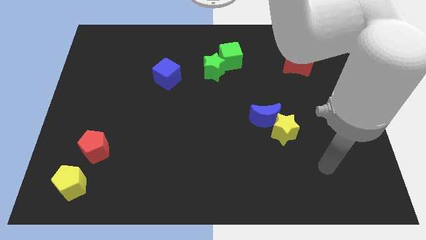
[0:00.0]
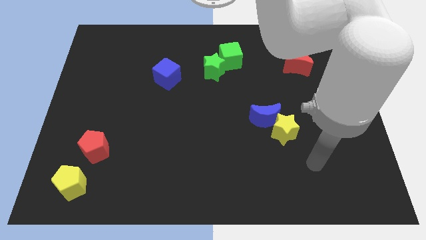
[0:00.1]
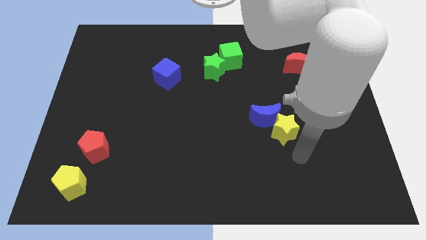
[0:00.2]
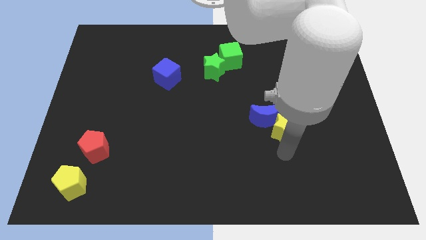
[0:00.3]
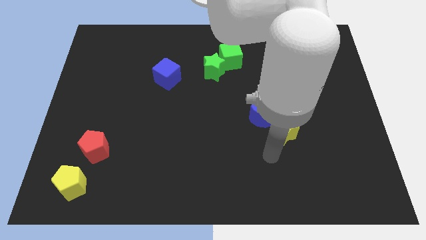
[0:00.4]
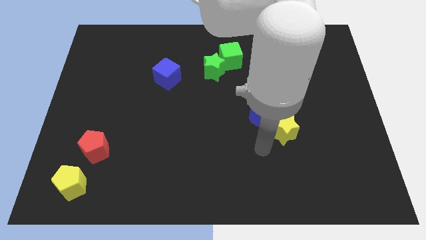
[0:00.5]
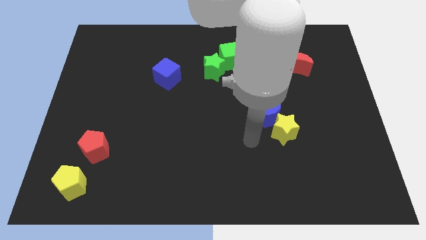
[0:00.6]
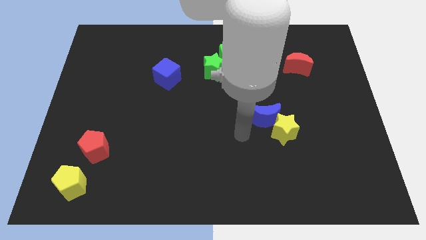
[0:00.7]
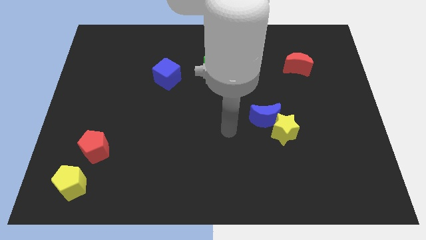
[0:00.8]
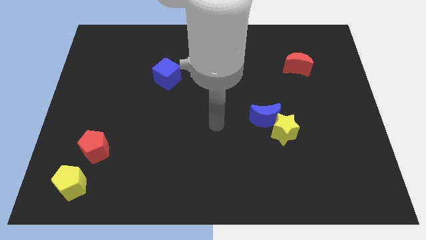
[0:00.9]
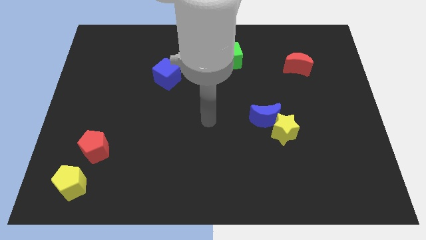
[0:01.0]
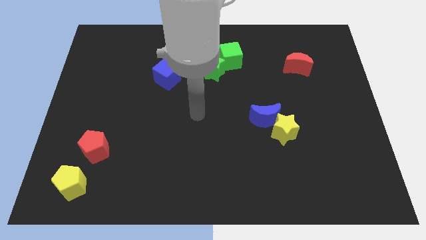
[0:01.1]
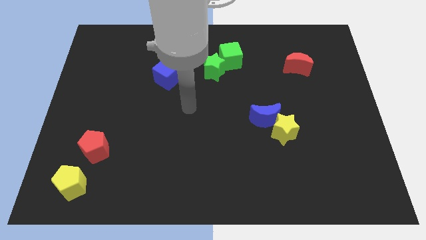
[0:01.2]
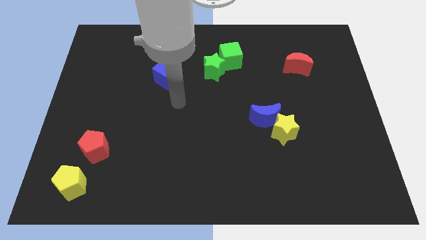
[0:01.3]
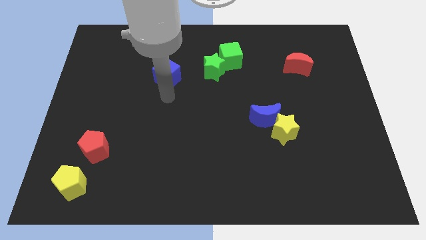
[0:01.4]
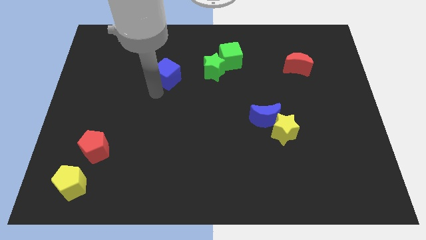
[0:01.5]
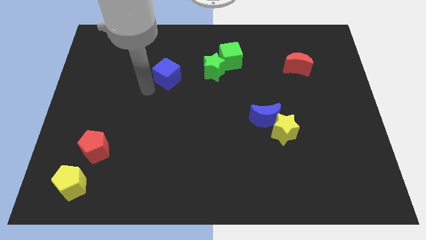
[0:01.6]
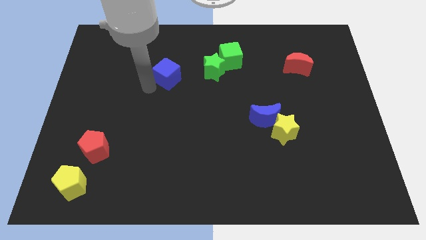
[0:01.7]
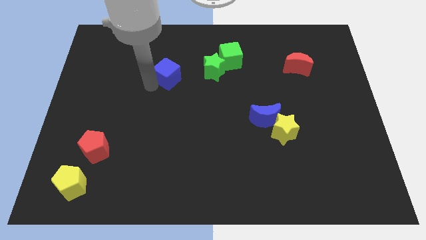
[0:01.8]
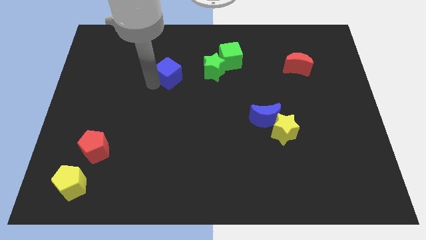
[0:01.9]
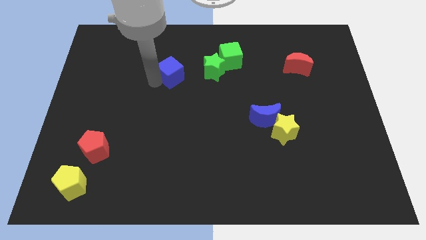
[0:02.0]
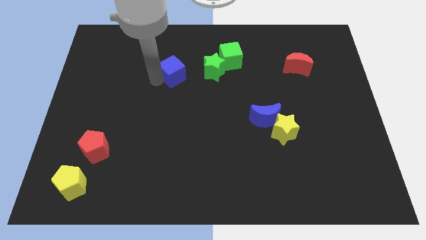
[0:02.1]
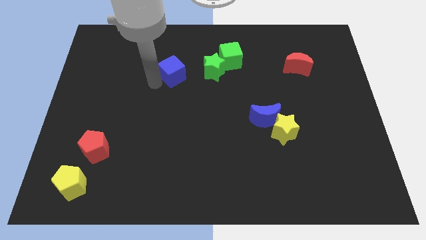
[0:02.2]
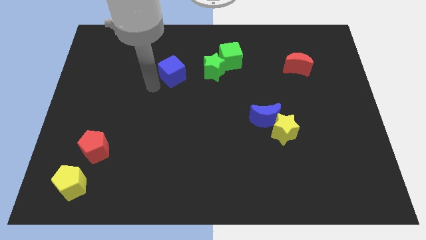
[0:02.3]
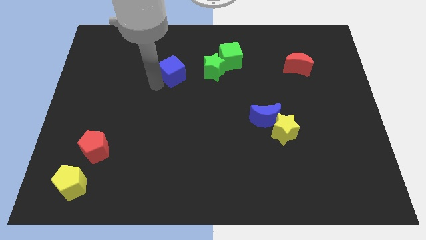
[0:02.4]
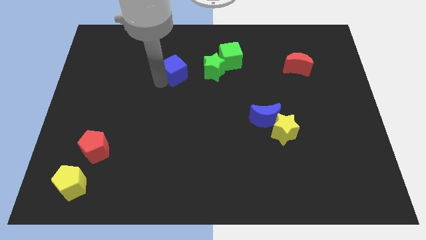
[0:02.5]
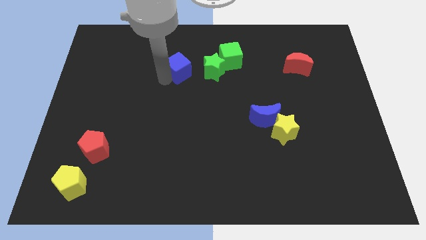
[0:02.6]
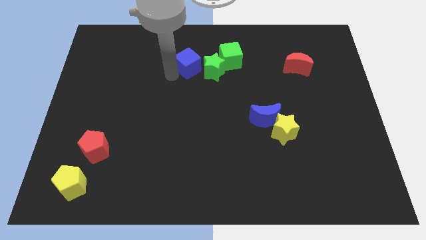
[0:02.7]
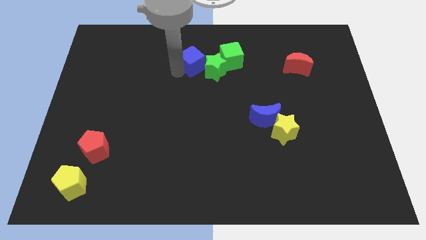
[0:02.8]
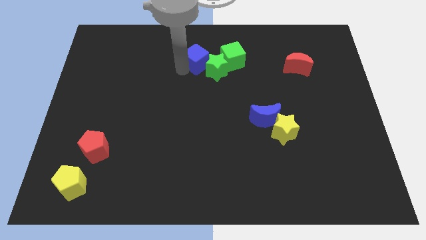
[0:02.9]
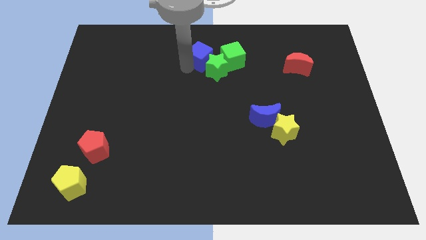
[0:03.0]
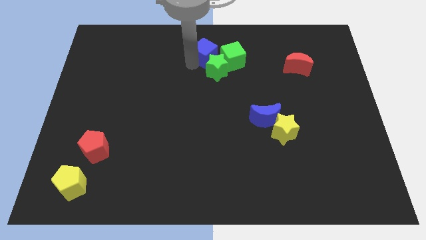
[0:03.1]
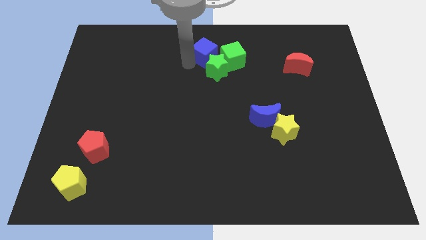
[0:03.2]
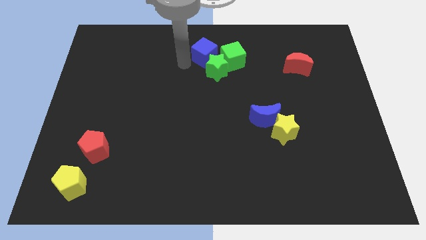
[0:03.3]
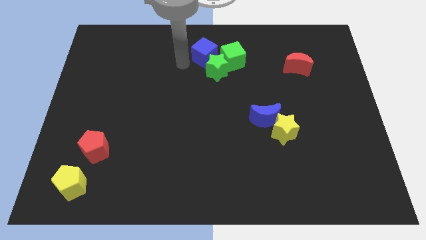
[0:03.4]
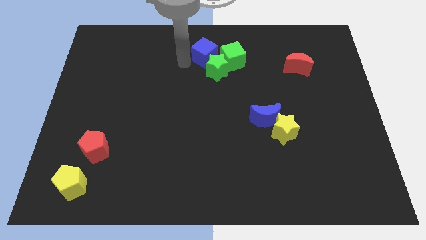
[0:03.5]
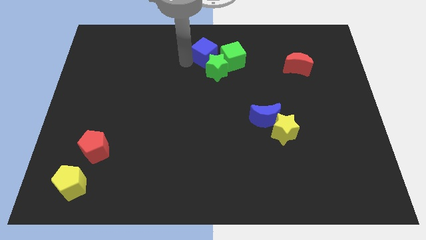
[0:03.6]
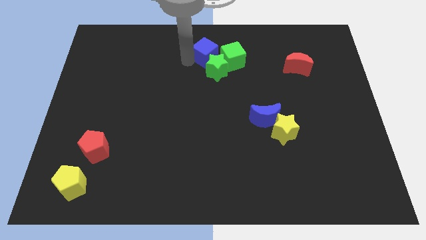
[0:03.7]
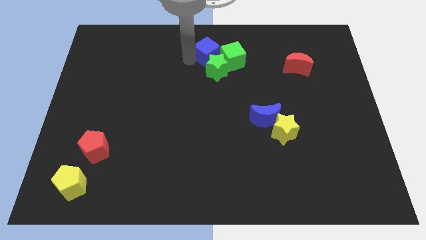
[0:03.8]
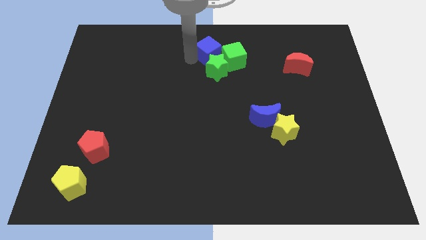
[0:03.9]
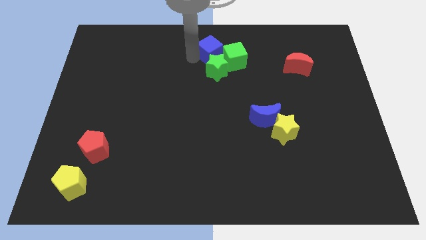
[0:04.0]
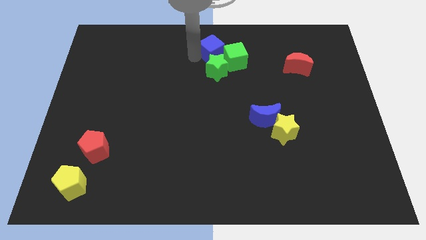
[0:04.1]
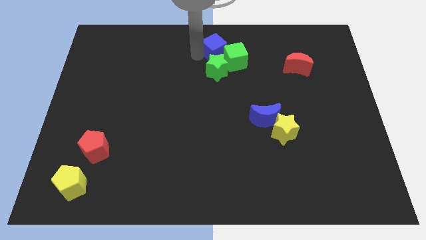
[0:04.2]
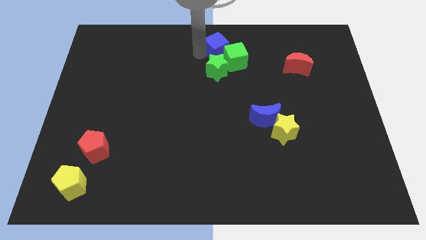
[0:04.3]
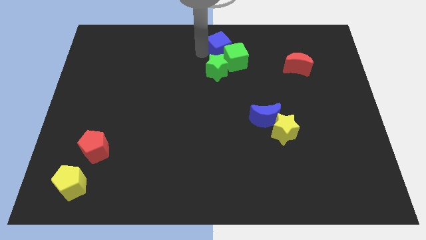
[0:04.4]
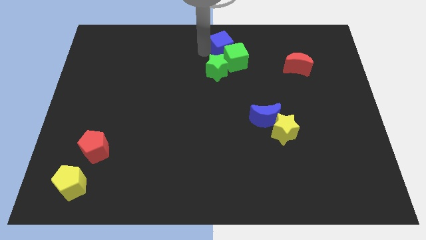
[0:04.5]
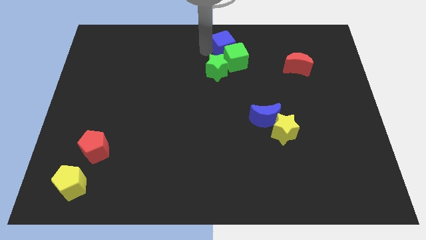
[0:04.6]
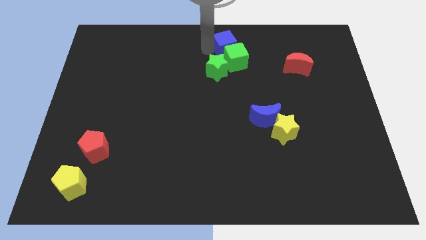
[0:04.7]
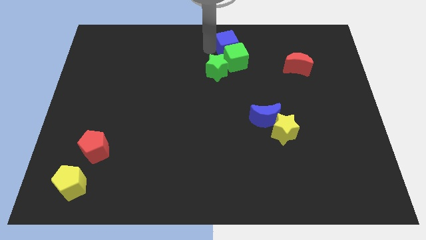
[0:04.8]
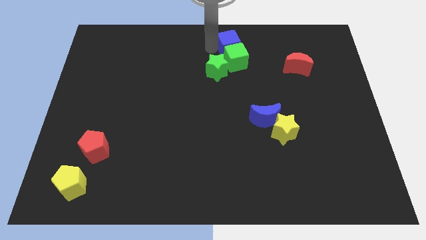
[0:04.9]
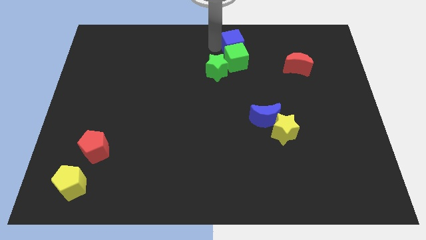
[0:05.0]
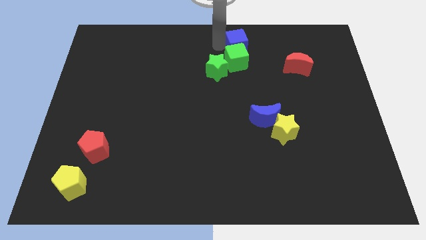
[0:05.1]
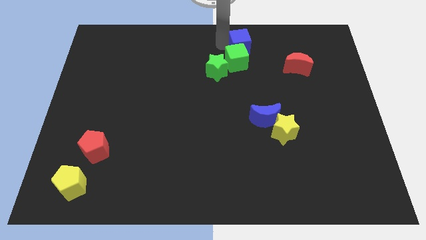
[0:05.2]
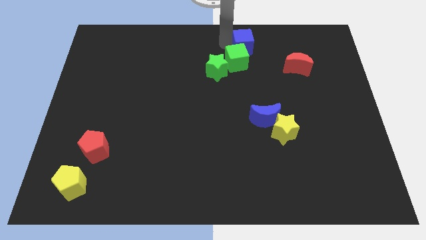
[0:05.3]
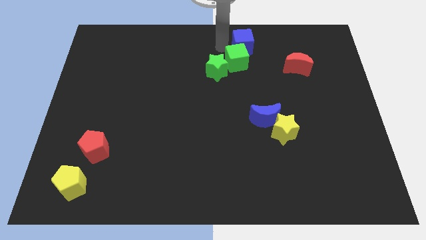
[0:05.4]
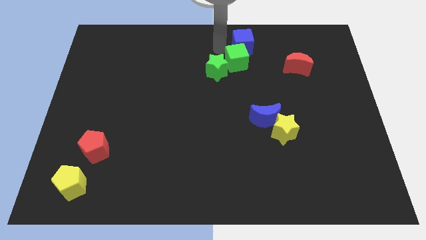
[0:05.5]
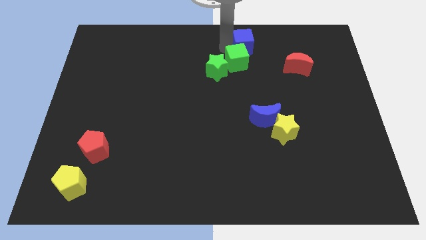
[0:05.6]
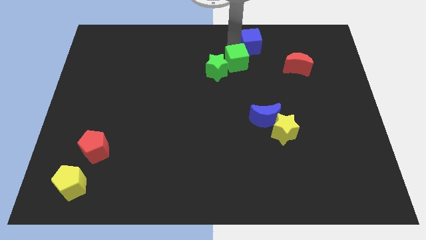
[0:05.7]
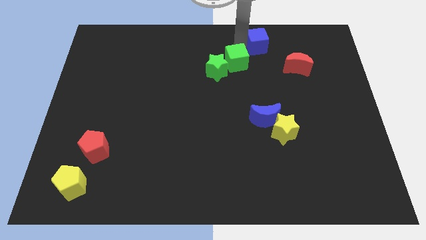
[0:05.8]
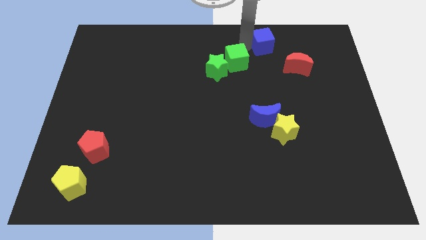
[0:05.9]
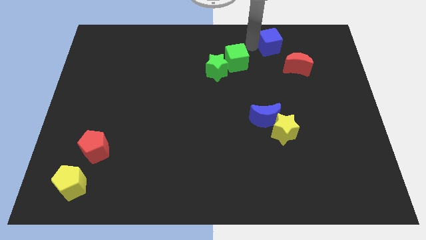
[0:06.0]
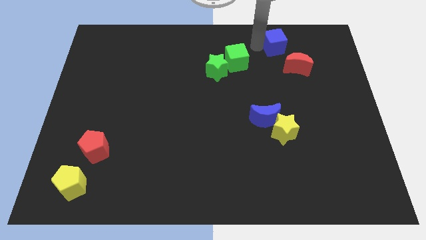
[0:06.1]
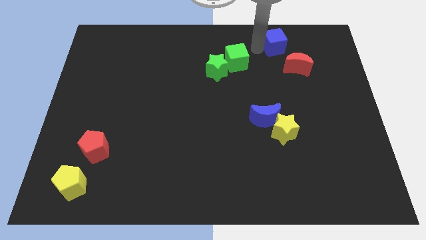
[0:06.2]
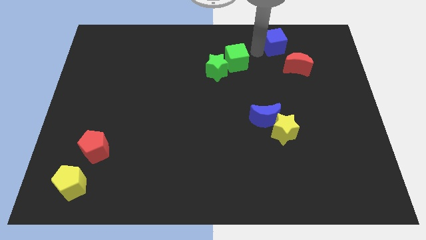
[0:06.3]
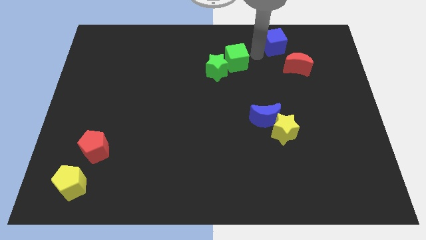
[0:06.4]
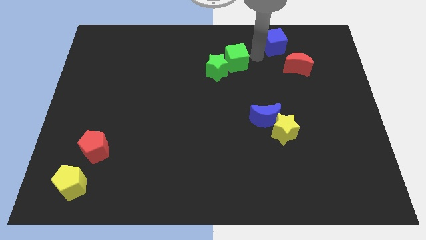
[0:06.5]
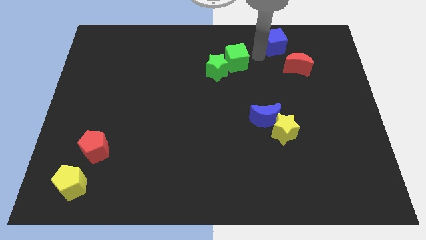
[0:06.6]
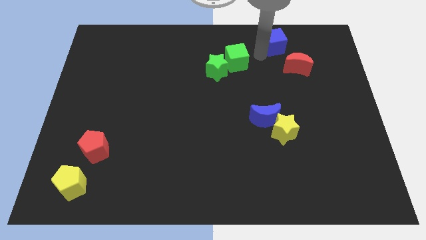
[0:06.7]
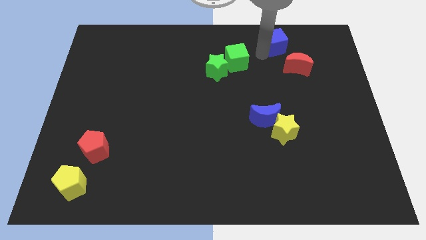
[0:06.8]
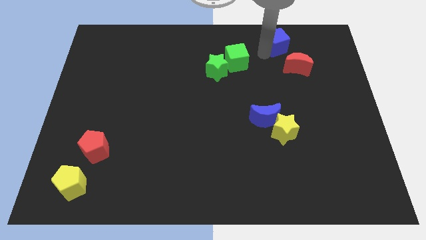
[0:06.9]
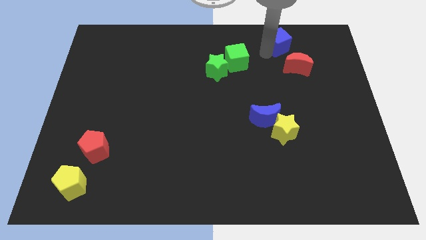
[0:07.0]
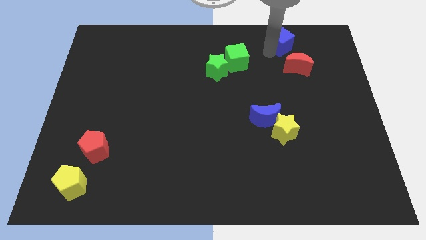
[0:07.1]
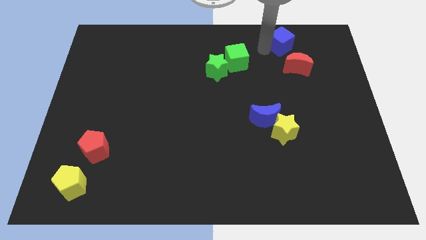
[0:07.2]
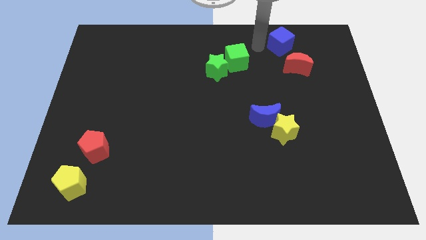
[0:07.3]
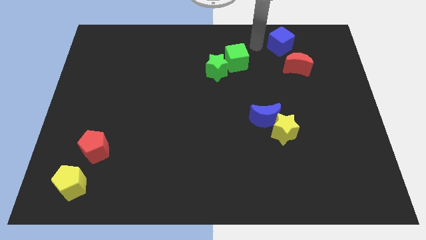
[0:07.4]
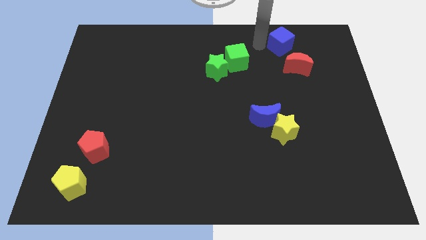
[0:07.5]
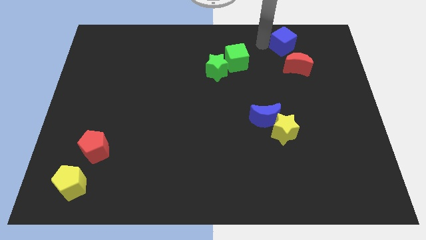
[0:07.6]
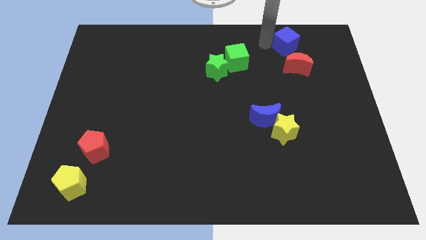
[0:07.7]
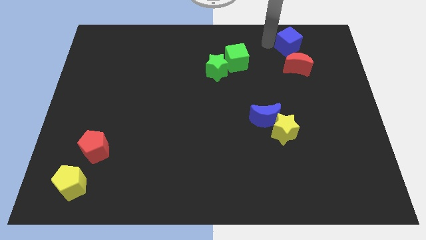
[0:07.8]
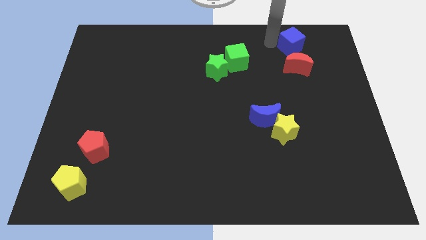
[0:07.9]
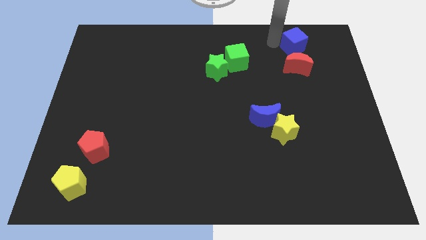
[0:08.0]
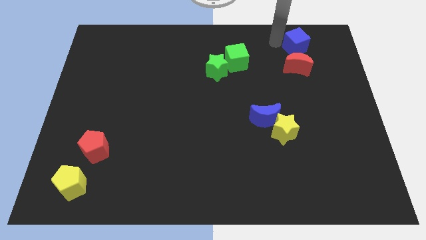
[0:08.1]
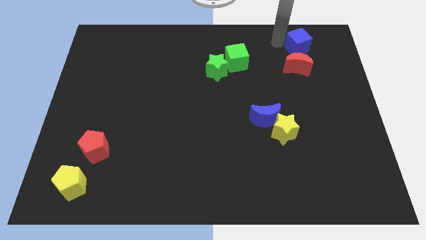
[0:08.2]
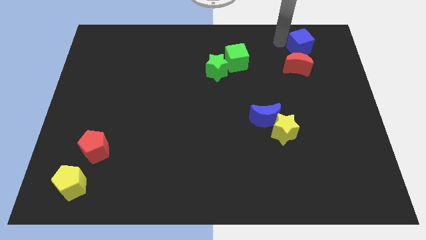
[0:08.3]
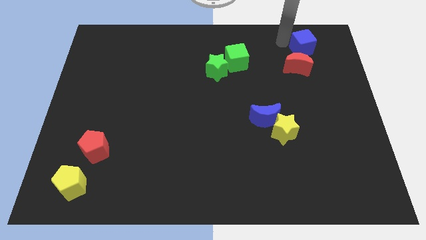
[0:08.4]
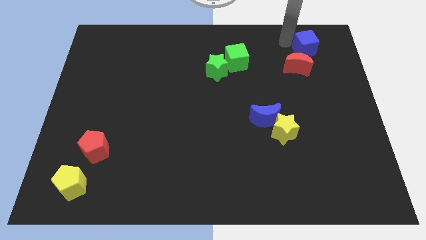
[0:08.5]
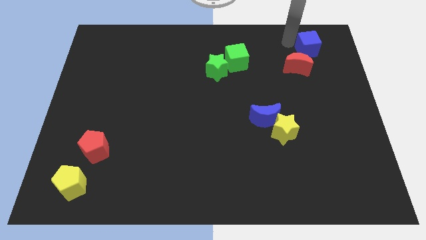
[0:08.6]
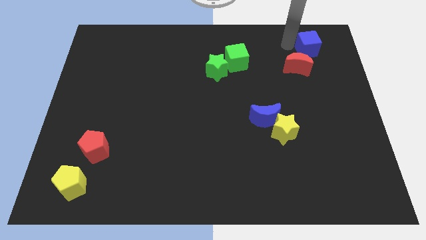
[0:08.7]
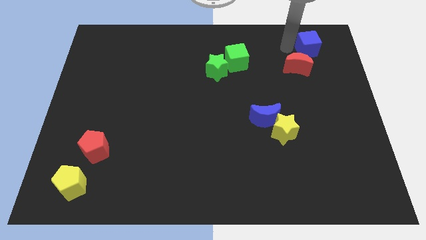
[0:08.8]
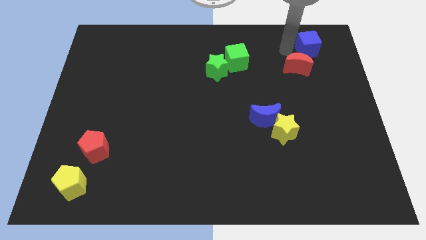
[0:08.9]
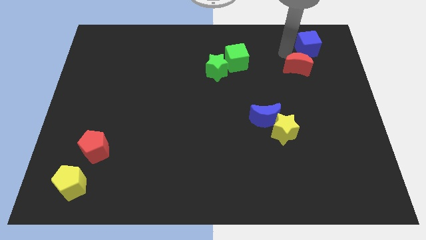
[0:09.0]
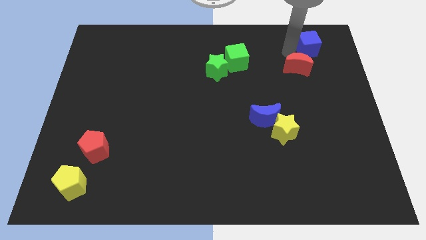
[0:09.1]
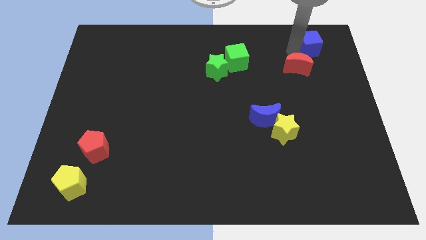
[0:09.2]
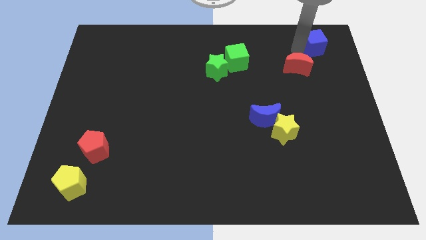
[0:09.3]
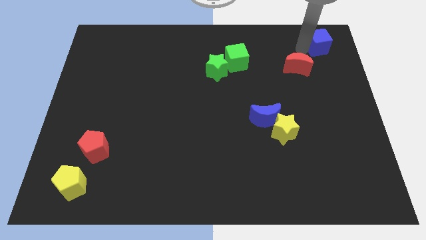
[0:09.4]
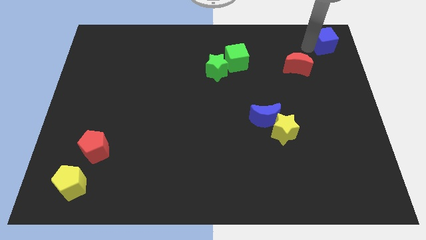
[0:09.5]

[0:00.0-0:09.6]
put the blue cube to the upper right corner
